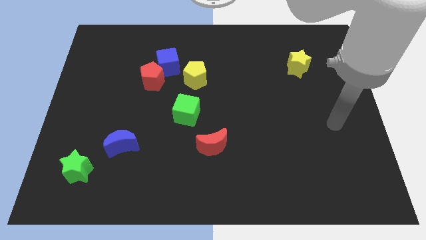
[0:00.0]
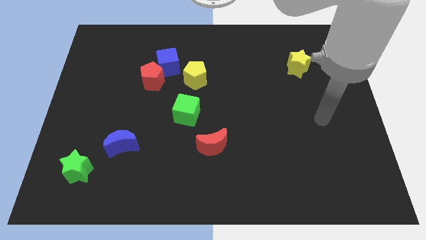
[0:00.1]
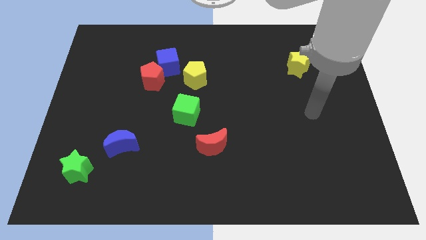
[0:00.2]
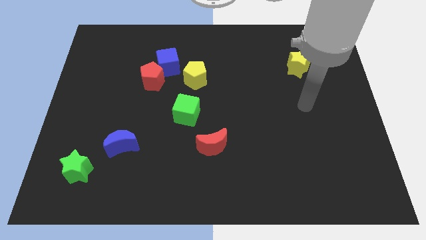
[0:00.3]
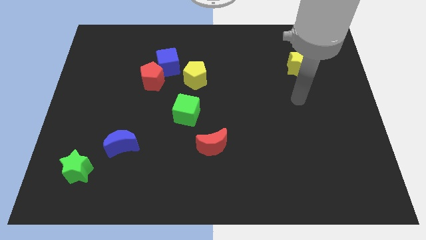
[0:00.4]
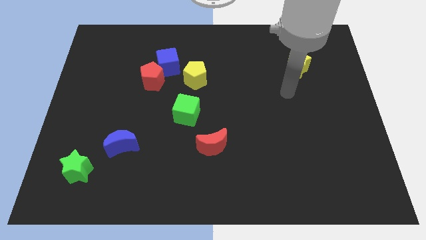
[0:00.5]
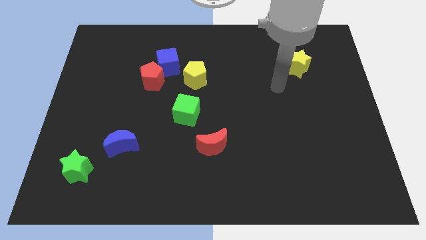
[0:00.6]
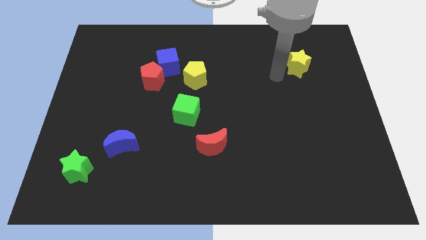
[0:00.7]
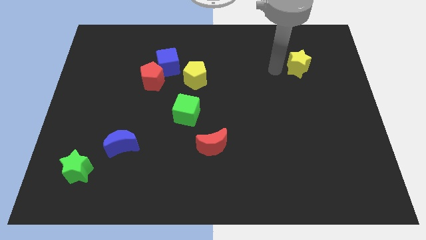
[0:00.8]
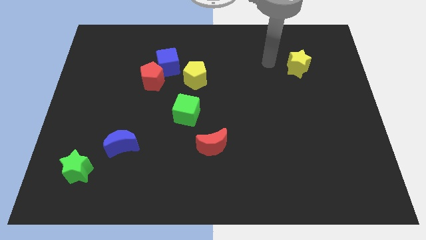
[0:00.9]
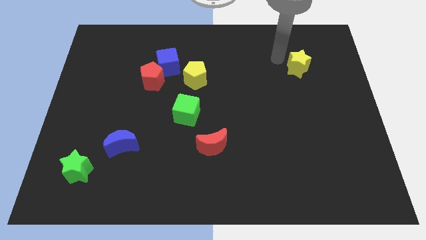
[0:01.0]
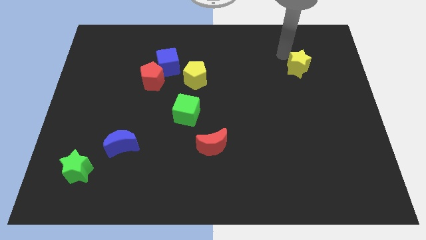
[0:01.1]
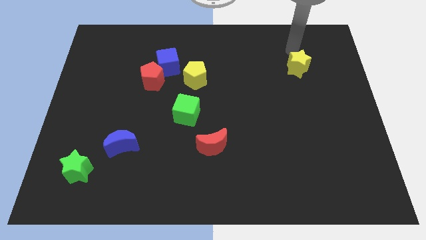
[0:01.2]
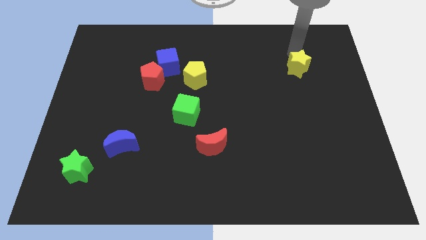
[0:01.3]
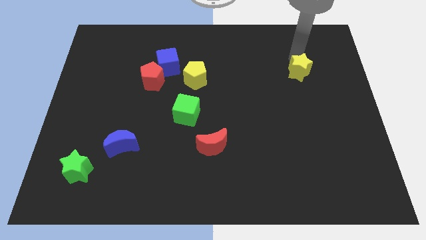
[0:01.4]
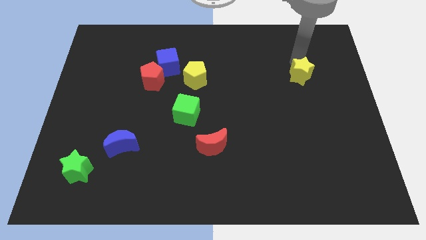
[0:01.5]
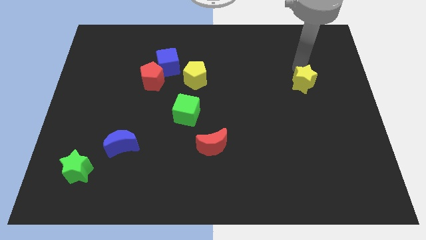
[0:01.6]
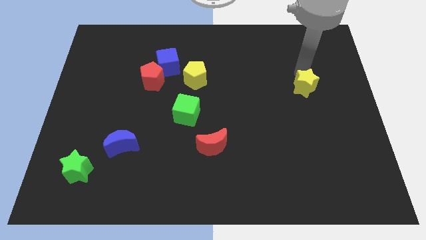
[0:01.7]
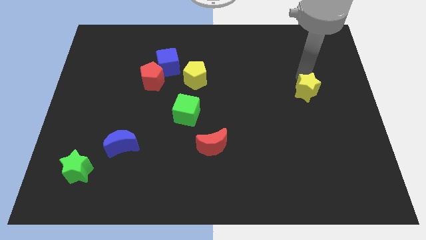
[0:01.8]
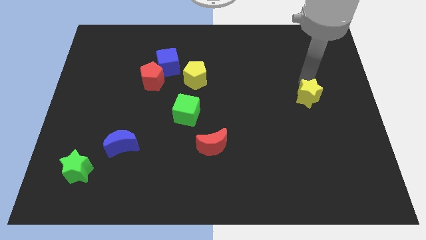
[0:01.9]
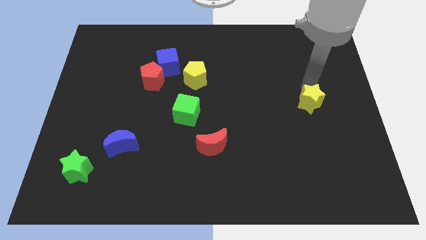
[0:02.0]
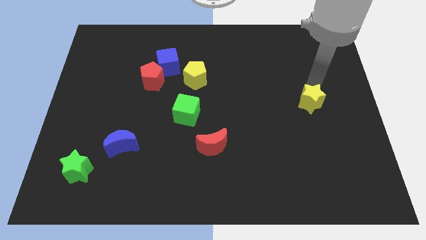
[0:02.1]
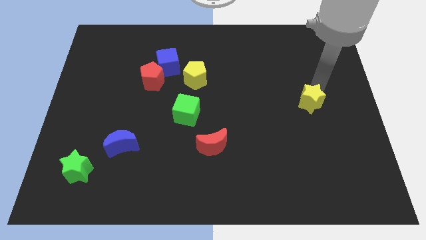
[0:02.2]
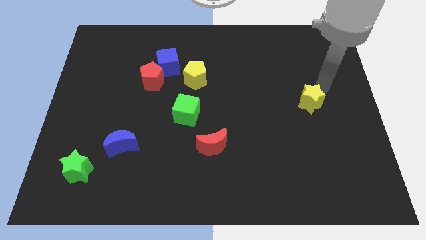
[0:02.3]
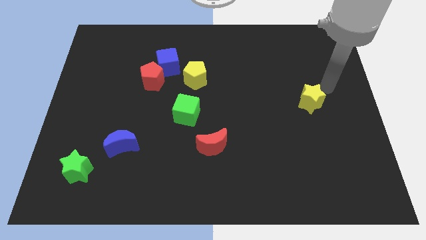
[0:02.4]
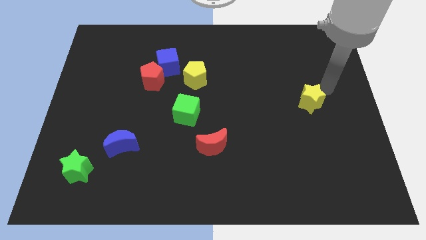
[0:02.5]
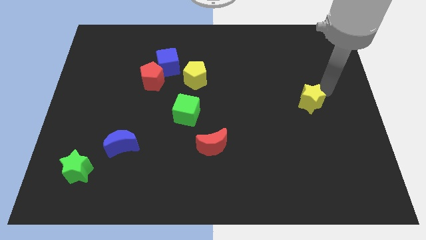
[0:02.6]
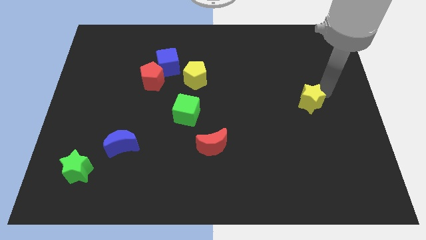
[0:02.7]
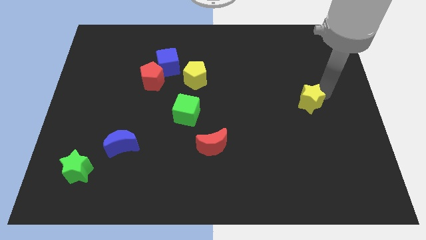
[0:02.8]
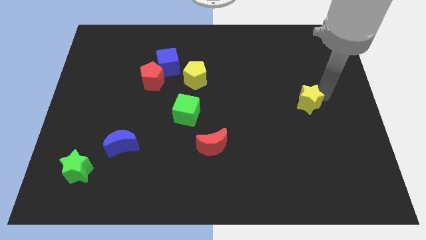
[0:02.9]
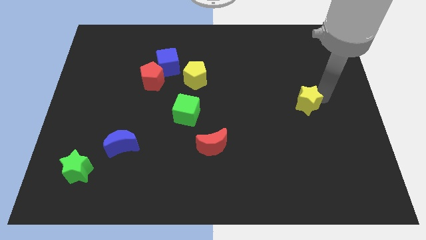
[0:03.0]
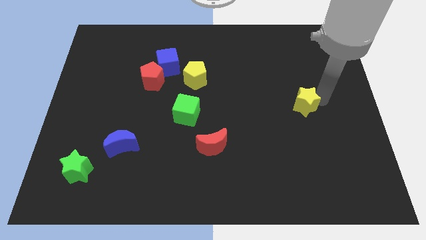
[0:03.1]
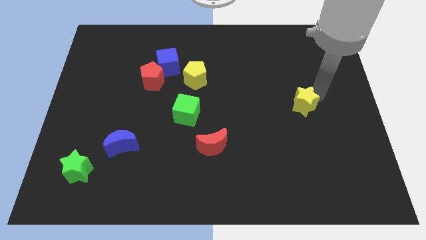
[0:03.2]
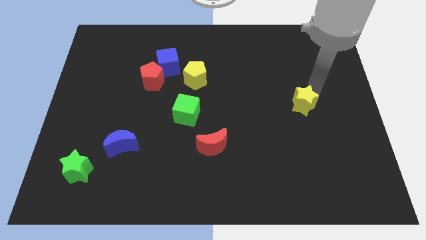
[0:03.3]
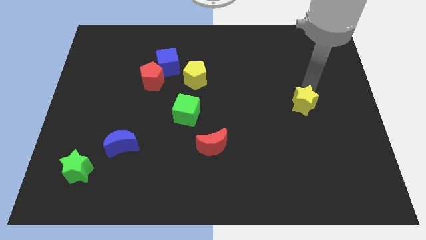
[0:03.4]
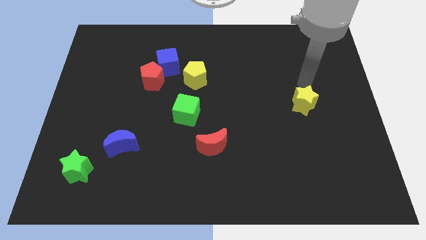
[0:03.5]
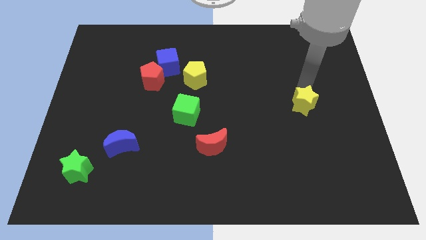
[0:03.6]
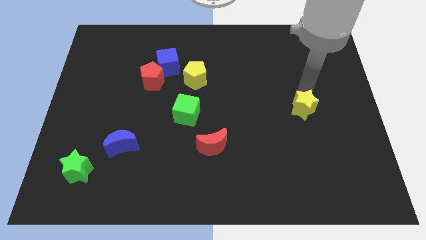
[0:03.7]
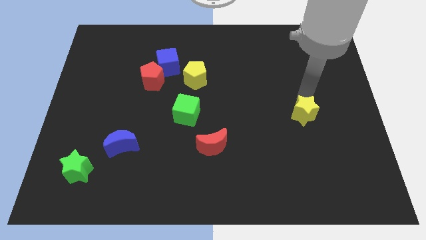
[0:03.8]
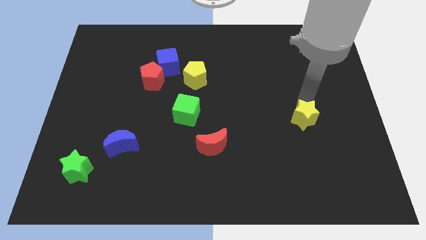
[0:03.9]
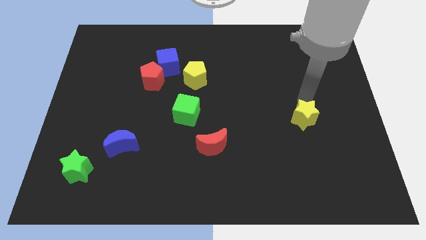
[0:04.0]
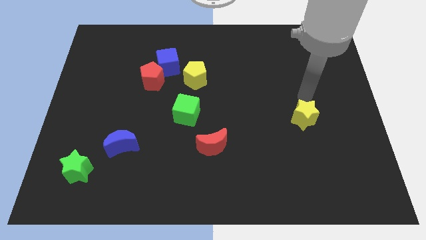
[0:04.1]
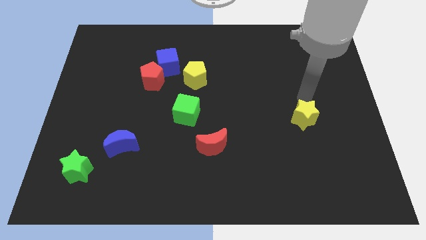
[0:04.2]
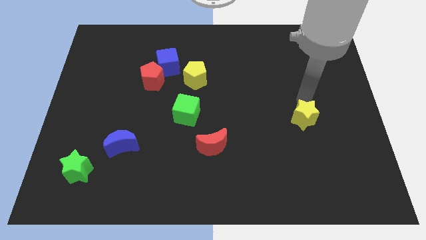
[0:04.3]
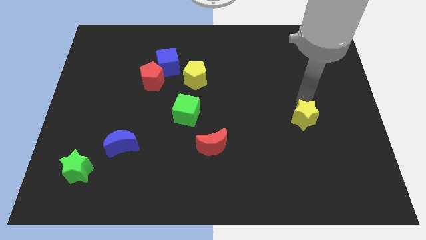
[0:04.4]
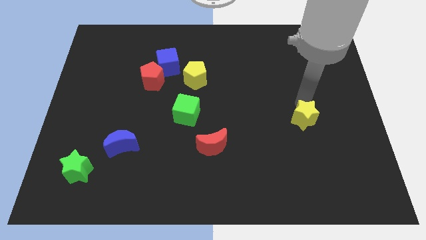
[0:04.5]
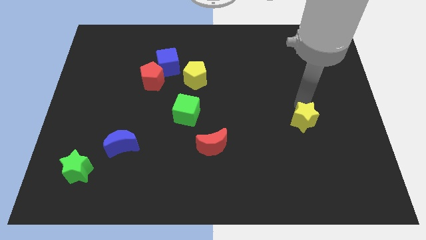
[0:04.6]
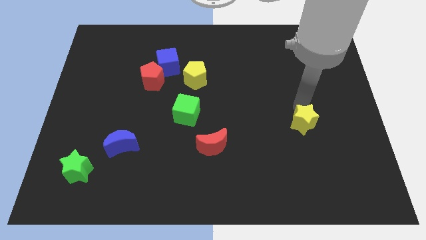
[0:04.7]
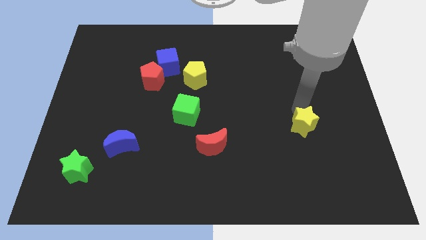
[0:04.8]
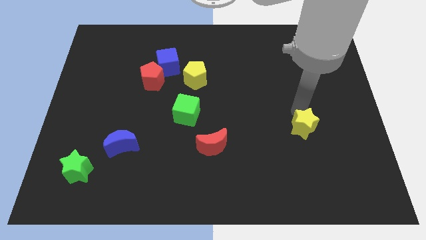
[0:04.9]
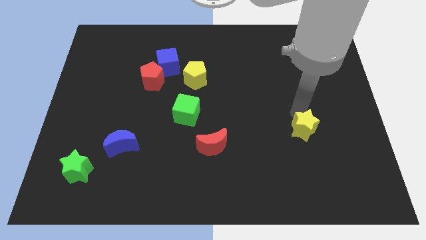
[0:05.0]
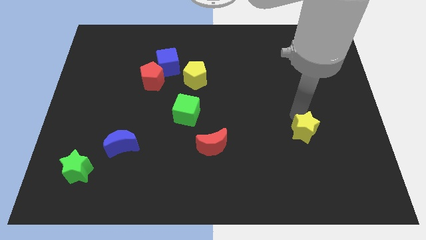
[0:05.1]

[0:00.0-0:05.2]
slide the yellow star down

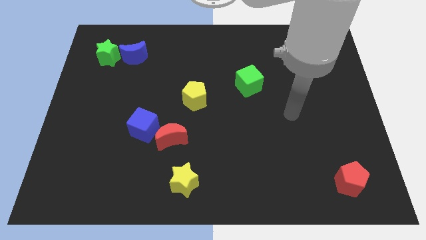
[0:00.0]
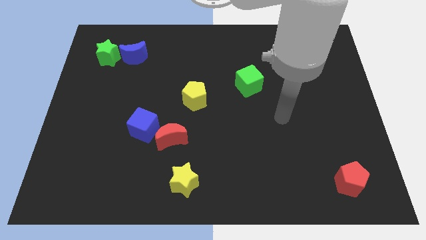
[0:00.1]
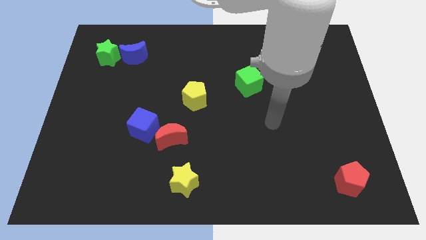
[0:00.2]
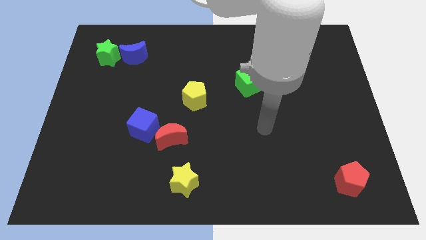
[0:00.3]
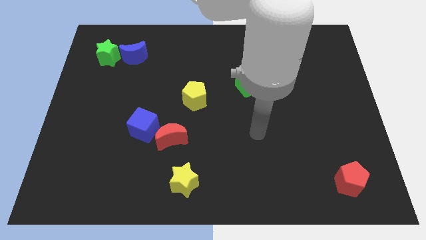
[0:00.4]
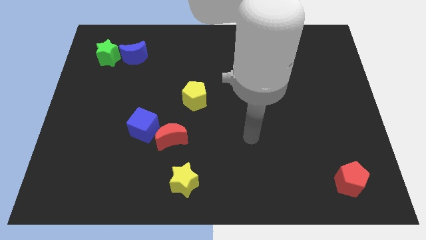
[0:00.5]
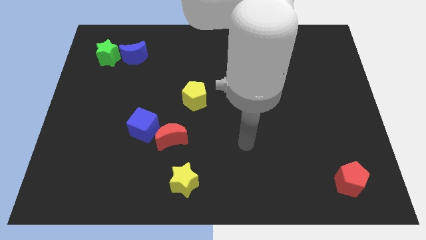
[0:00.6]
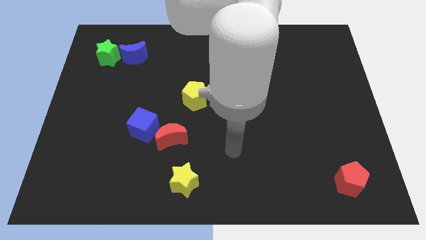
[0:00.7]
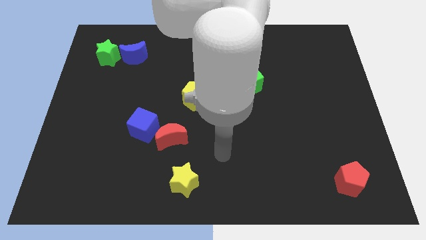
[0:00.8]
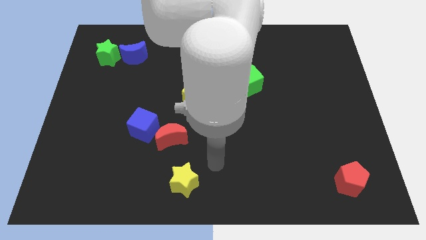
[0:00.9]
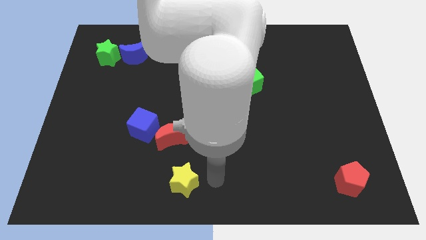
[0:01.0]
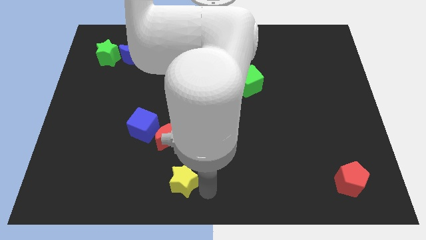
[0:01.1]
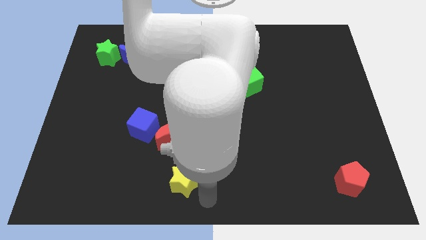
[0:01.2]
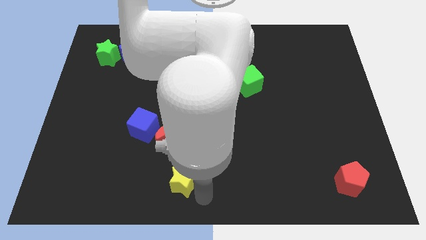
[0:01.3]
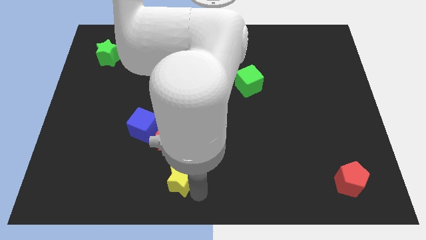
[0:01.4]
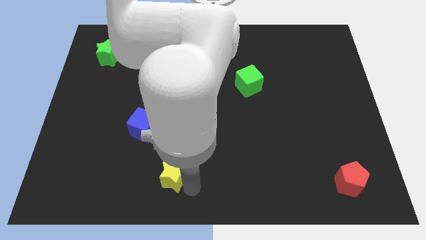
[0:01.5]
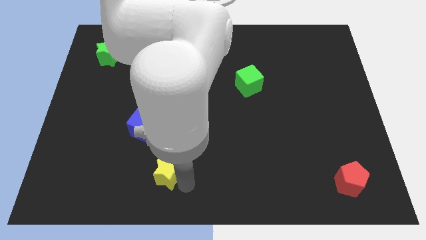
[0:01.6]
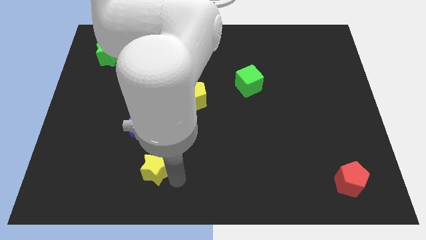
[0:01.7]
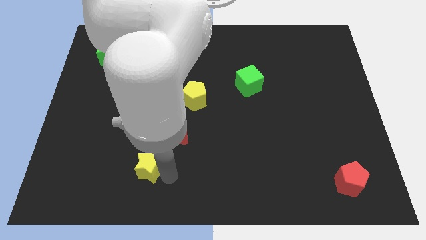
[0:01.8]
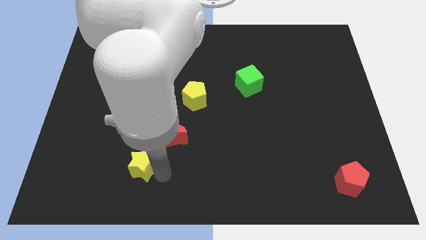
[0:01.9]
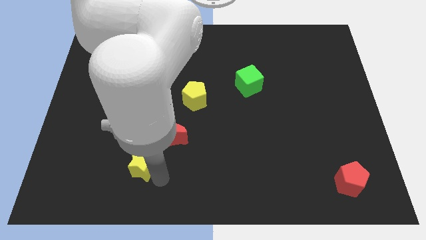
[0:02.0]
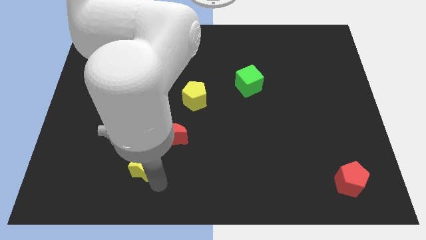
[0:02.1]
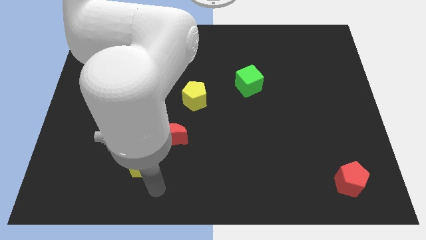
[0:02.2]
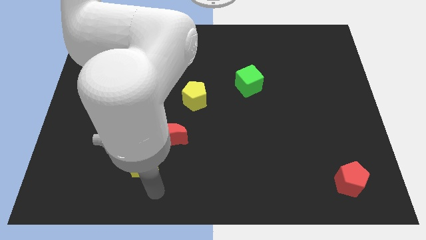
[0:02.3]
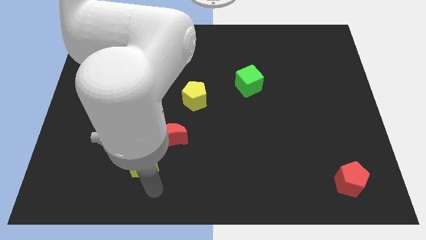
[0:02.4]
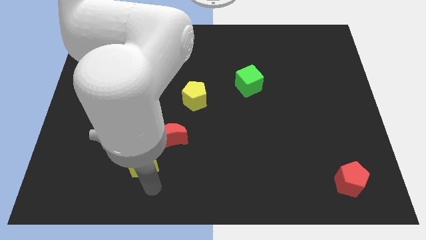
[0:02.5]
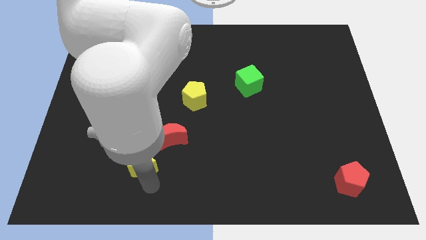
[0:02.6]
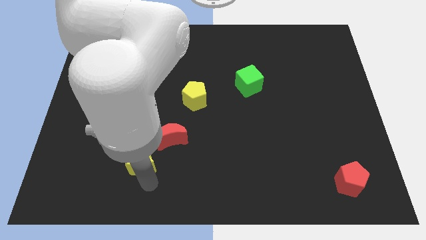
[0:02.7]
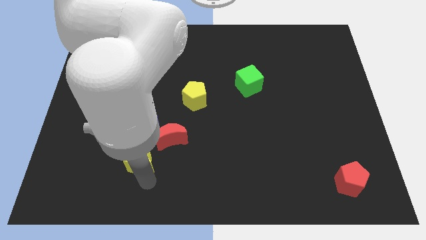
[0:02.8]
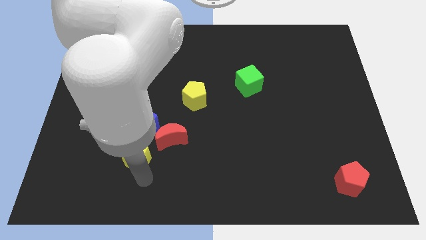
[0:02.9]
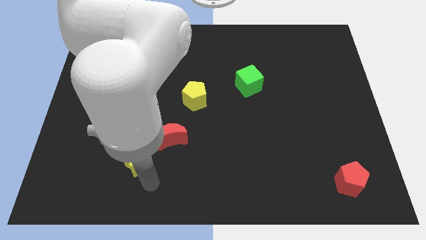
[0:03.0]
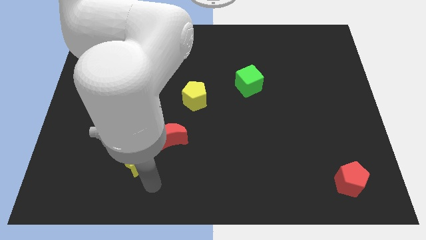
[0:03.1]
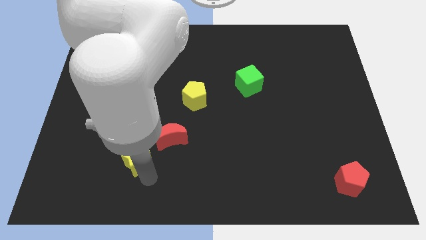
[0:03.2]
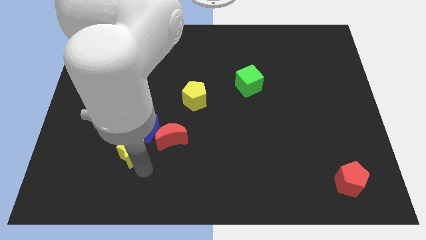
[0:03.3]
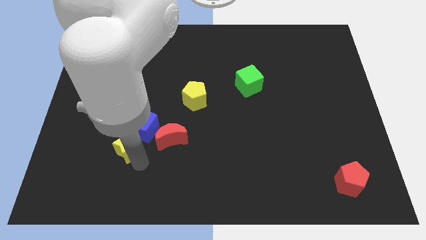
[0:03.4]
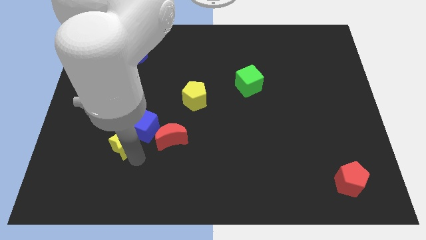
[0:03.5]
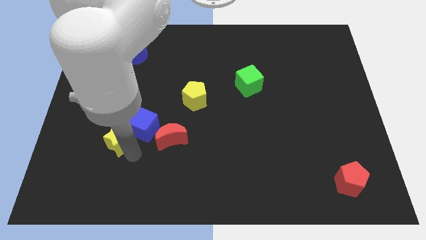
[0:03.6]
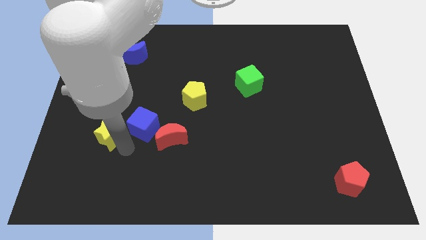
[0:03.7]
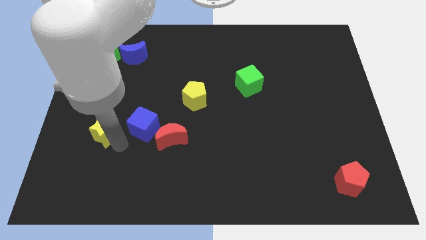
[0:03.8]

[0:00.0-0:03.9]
slide the yellow star upwards and left diagonally
